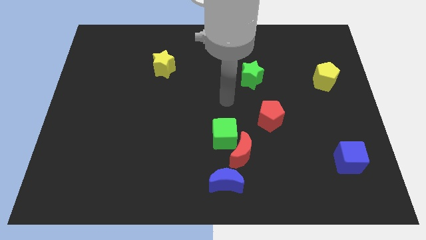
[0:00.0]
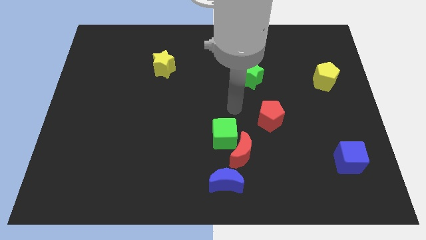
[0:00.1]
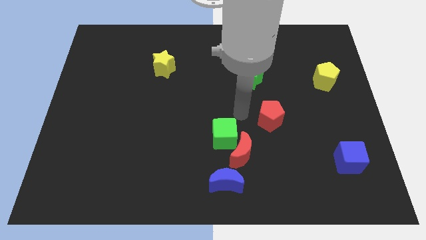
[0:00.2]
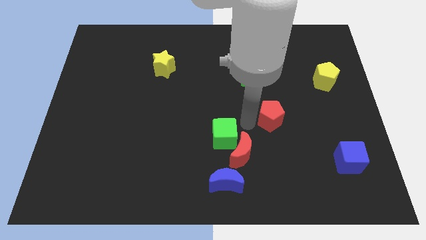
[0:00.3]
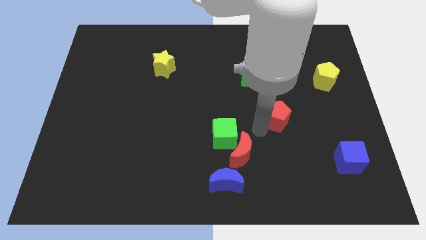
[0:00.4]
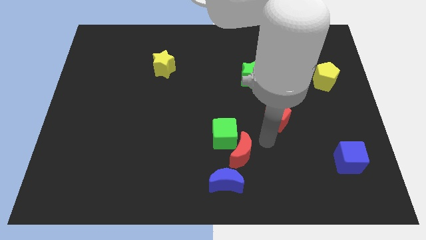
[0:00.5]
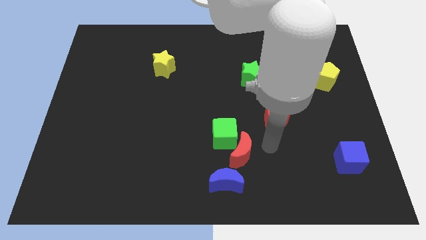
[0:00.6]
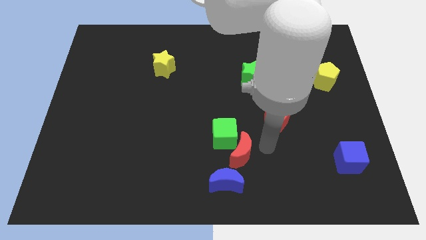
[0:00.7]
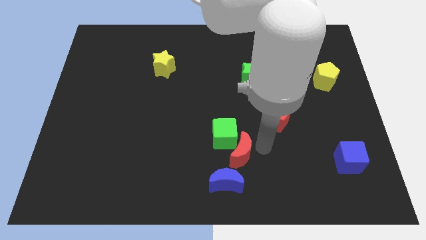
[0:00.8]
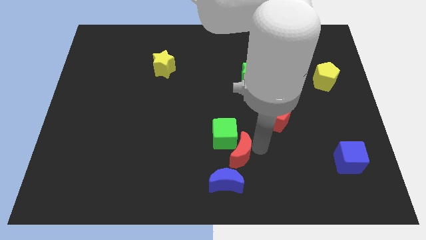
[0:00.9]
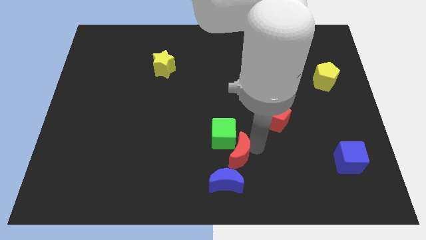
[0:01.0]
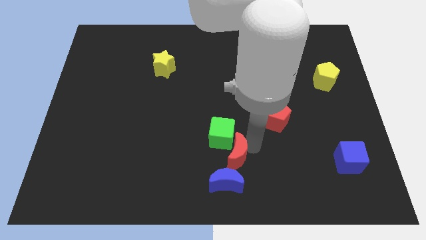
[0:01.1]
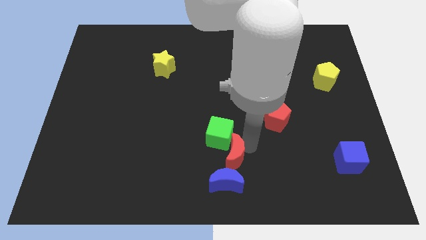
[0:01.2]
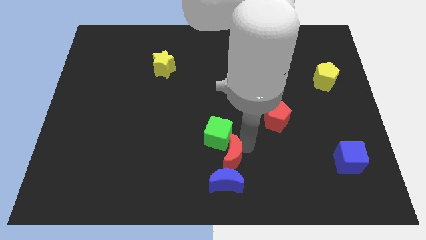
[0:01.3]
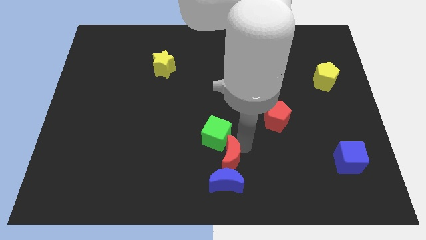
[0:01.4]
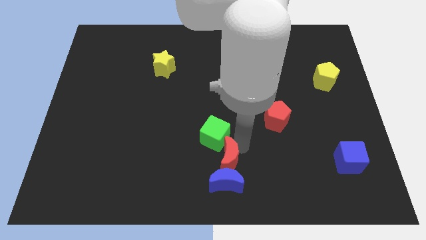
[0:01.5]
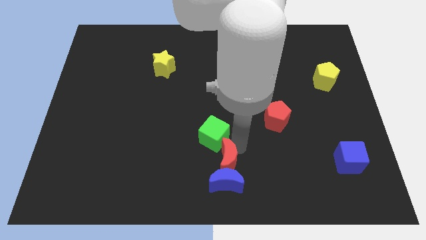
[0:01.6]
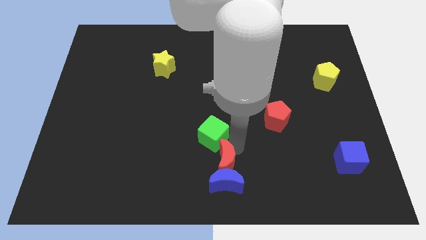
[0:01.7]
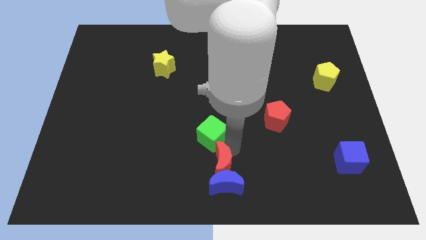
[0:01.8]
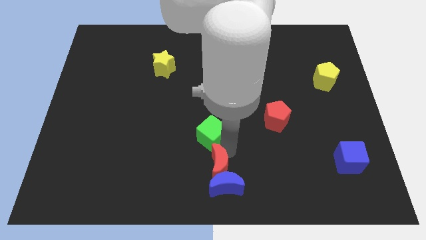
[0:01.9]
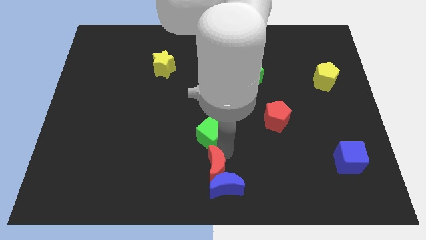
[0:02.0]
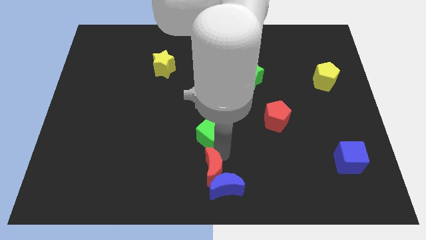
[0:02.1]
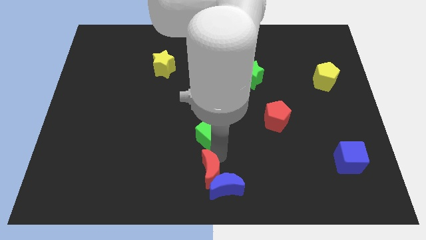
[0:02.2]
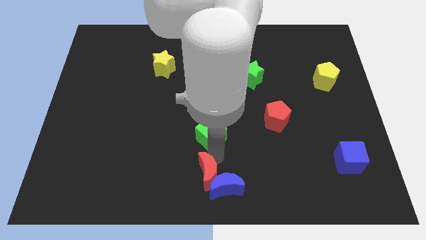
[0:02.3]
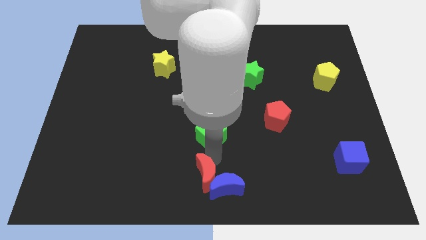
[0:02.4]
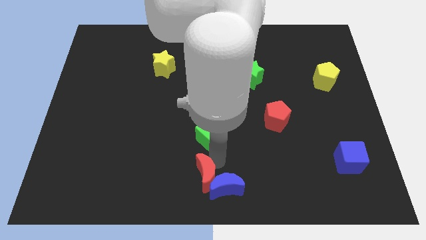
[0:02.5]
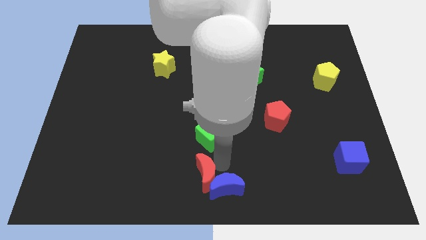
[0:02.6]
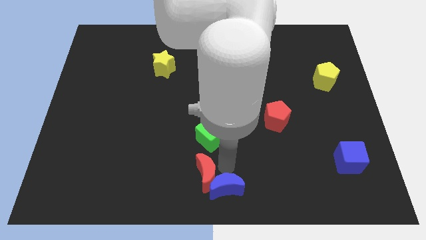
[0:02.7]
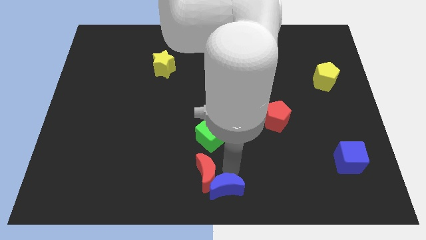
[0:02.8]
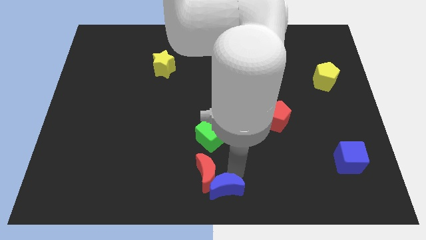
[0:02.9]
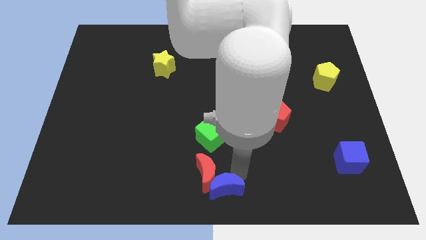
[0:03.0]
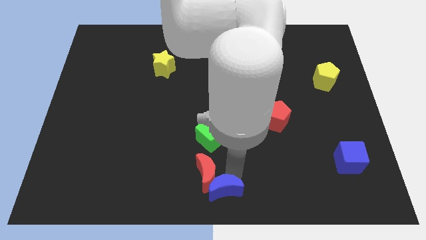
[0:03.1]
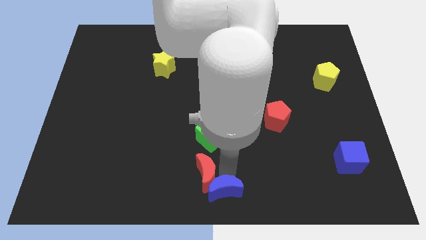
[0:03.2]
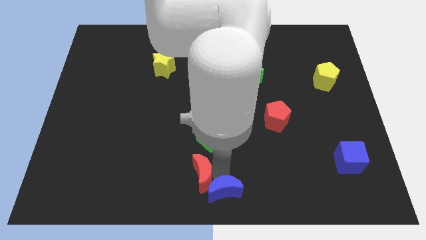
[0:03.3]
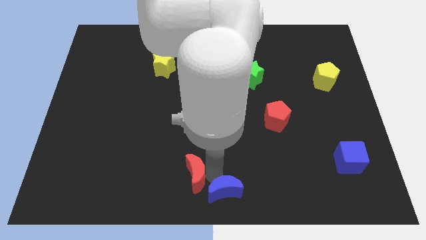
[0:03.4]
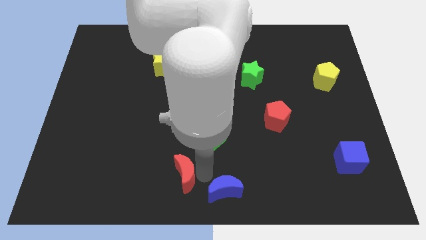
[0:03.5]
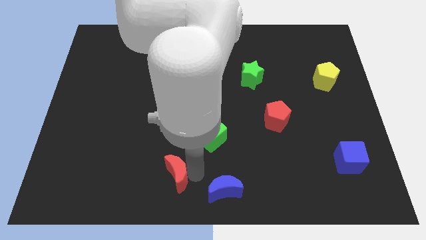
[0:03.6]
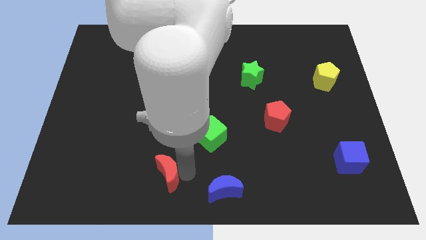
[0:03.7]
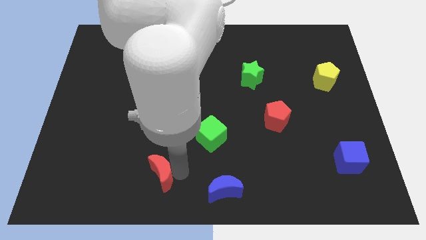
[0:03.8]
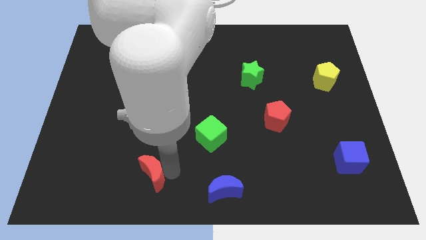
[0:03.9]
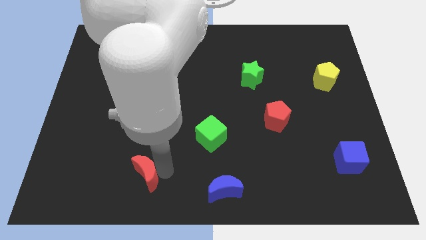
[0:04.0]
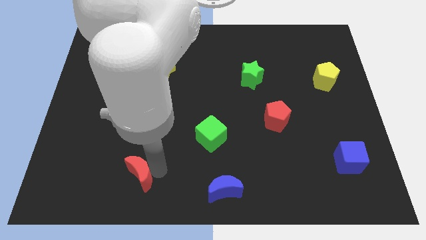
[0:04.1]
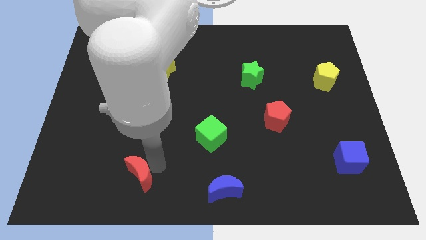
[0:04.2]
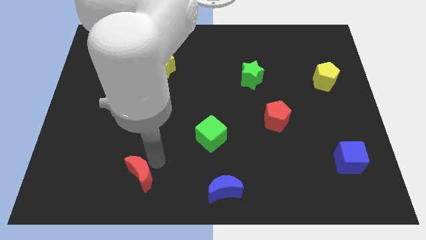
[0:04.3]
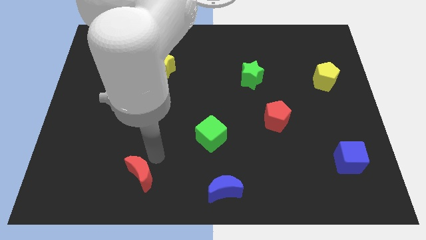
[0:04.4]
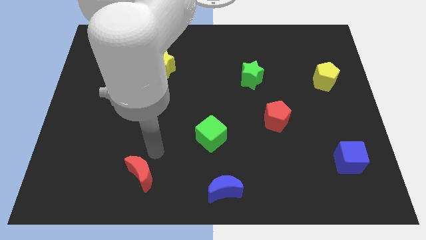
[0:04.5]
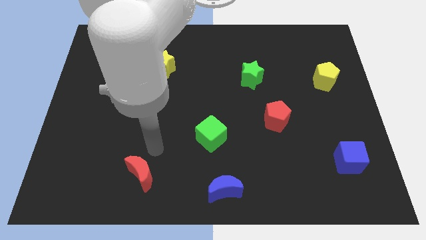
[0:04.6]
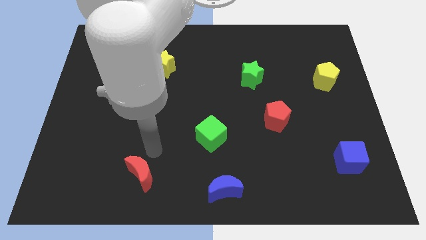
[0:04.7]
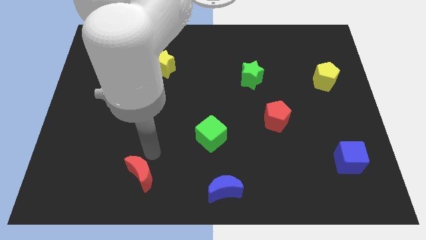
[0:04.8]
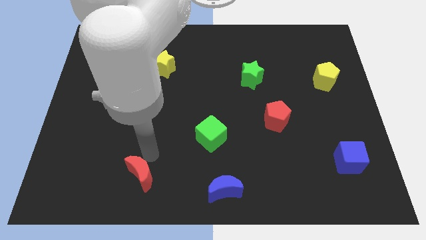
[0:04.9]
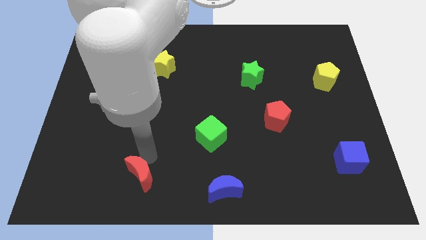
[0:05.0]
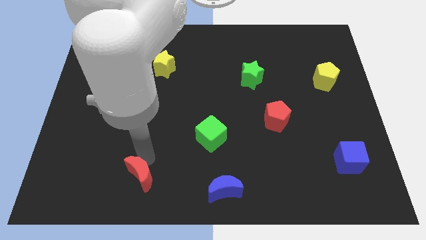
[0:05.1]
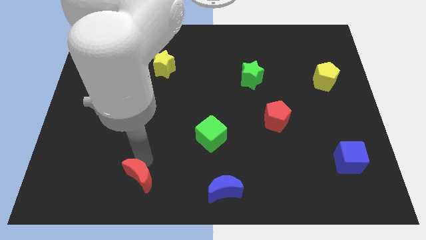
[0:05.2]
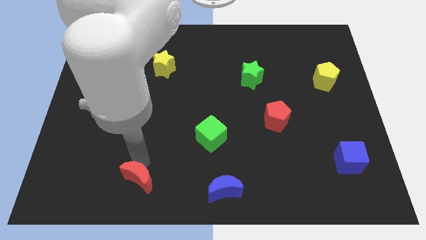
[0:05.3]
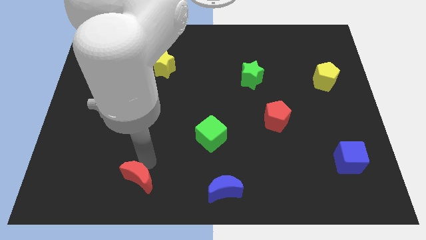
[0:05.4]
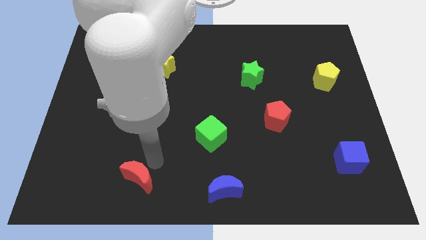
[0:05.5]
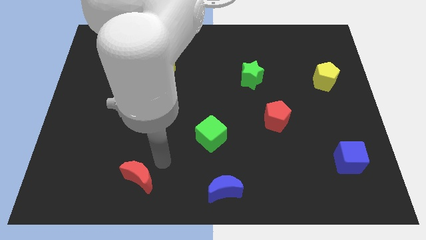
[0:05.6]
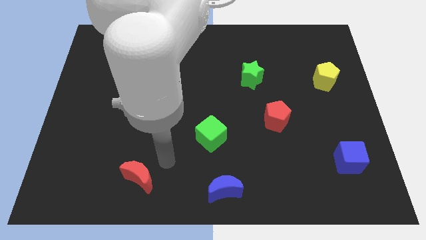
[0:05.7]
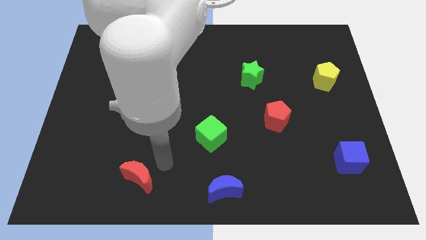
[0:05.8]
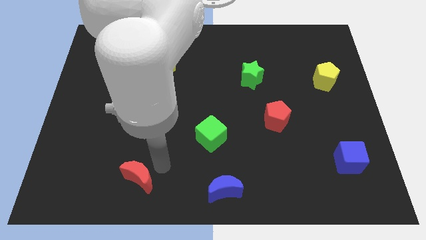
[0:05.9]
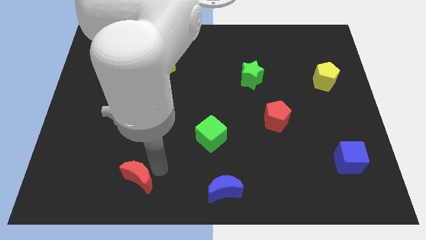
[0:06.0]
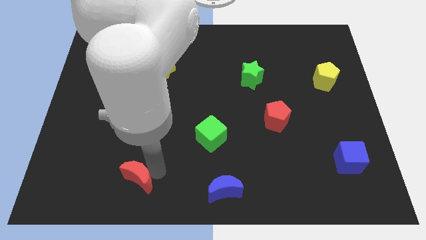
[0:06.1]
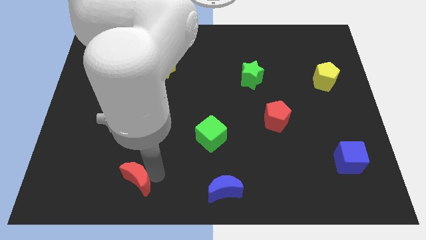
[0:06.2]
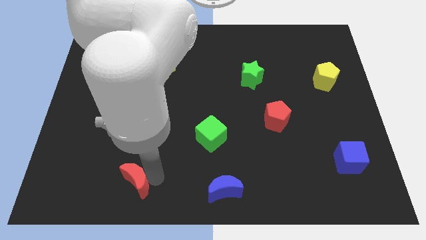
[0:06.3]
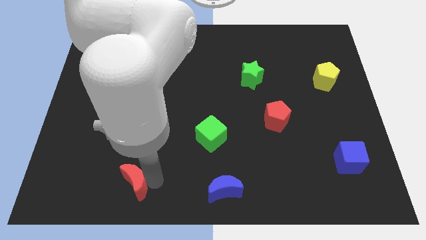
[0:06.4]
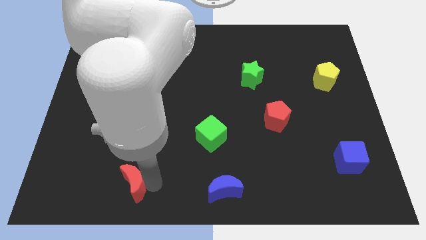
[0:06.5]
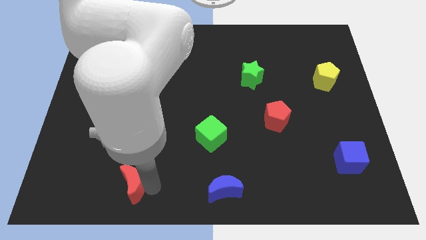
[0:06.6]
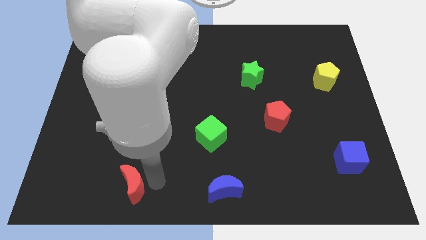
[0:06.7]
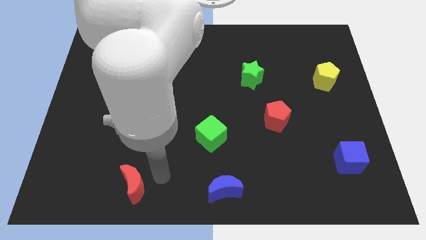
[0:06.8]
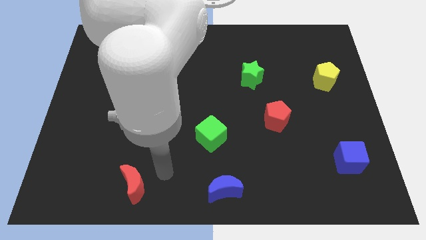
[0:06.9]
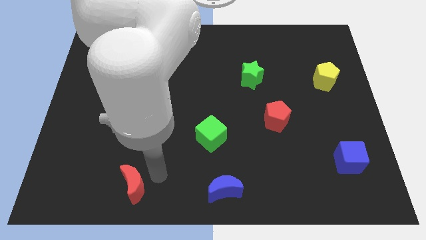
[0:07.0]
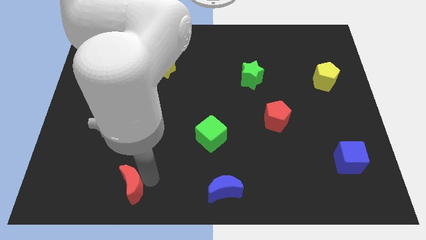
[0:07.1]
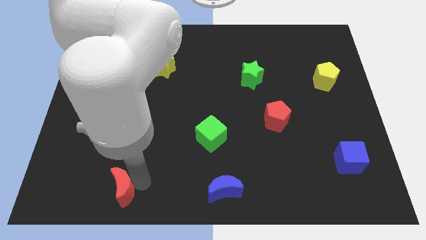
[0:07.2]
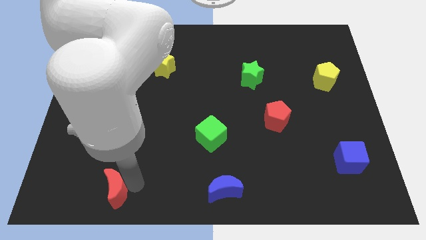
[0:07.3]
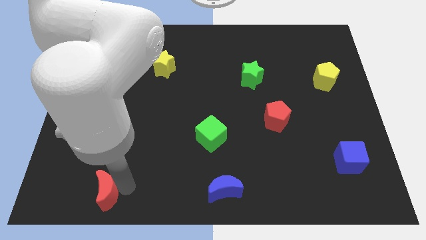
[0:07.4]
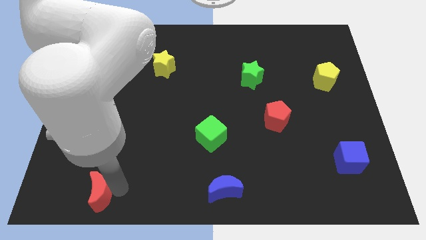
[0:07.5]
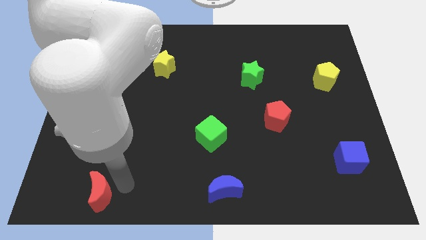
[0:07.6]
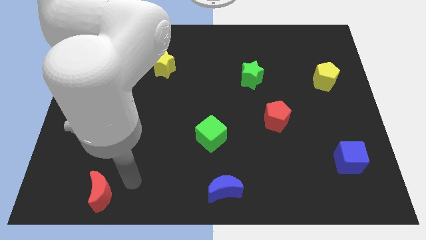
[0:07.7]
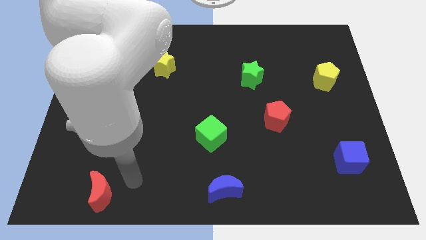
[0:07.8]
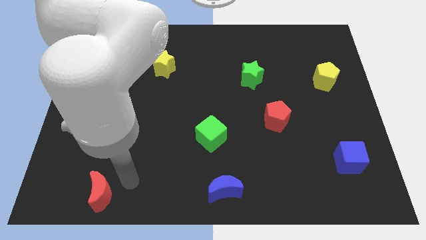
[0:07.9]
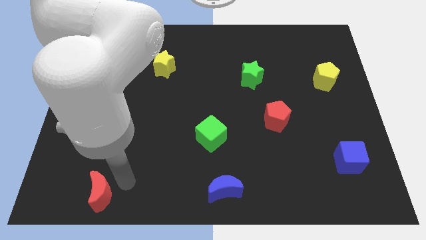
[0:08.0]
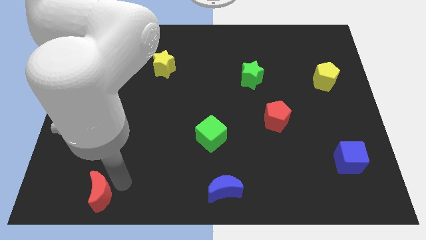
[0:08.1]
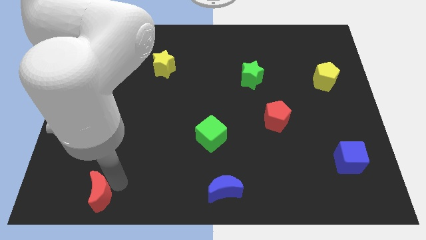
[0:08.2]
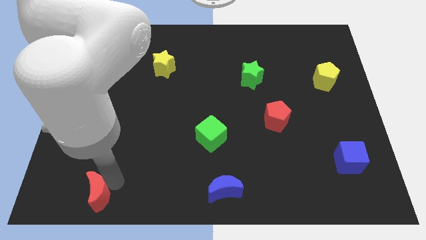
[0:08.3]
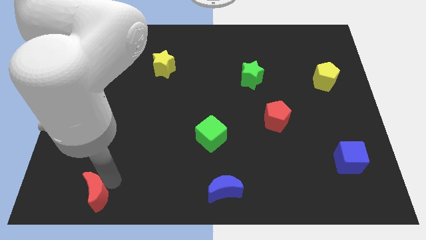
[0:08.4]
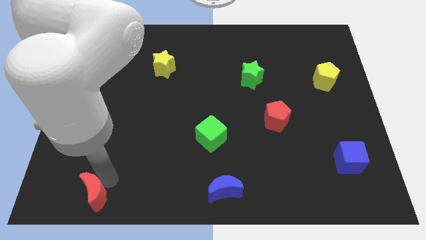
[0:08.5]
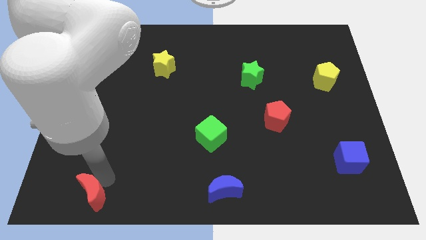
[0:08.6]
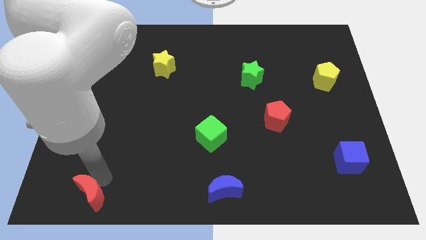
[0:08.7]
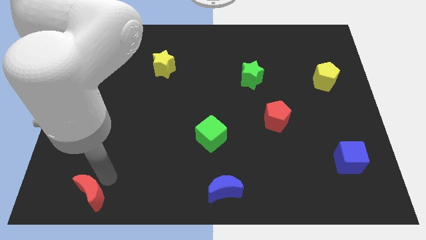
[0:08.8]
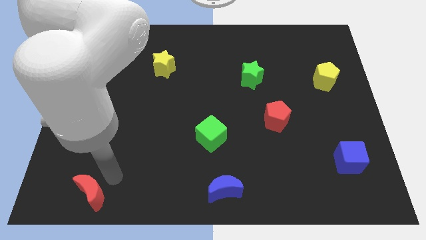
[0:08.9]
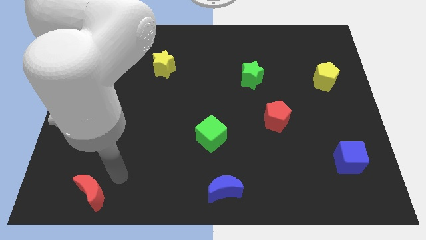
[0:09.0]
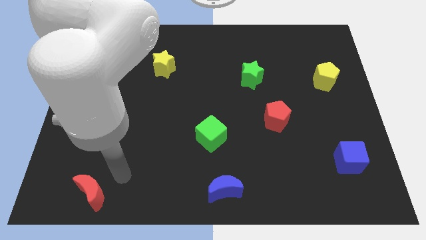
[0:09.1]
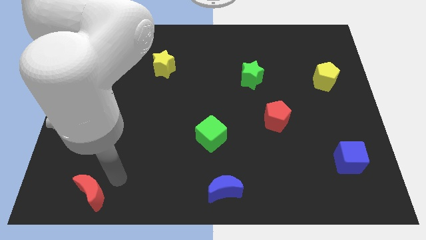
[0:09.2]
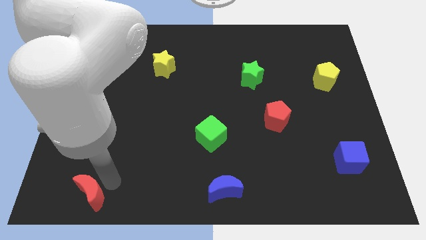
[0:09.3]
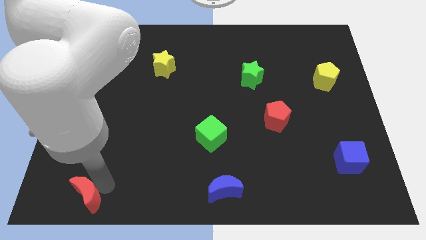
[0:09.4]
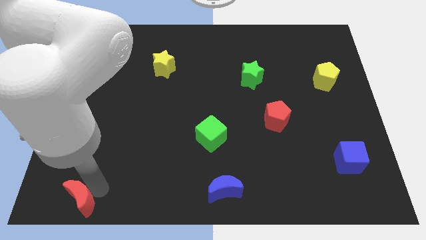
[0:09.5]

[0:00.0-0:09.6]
put the red moon to the bottom left corner
